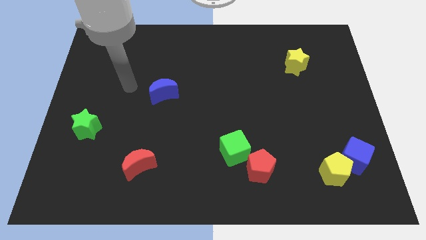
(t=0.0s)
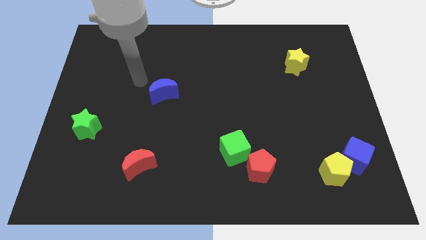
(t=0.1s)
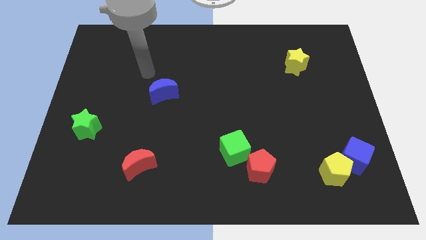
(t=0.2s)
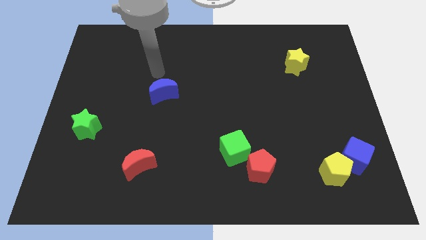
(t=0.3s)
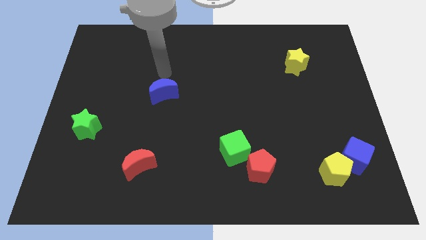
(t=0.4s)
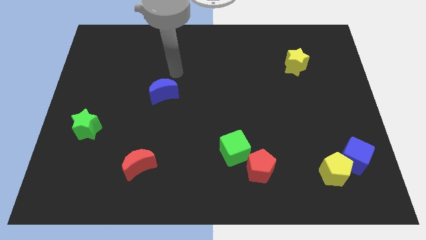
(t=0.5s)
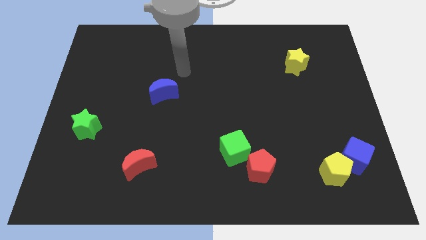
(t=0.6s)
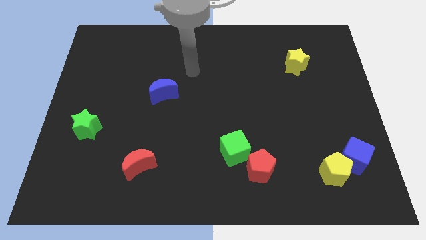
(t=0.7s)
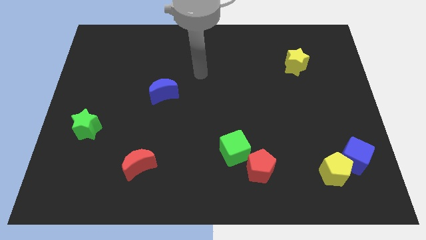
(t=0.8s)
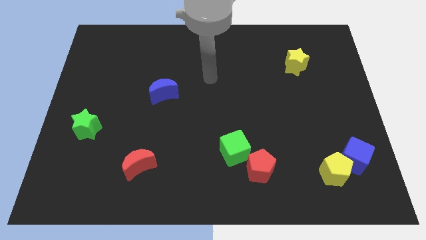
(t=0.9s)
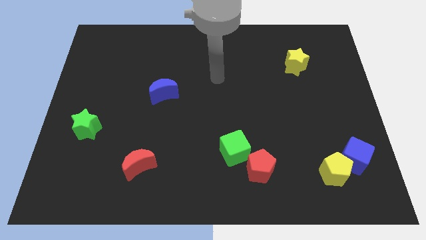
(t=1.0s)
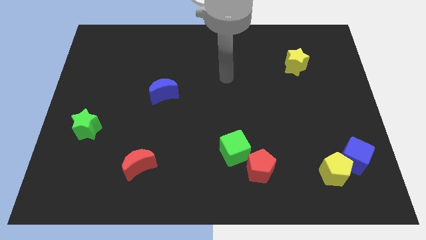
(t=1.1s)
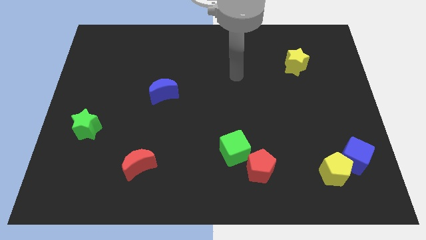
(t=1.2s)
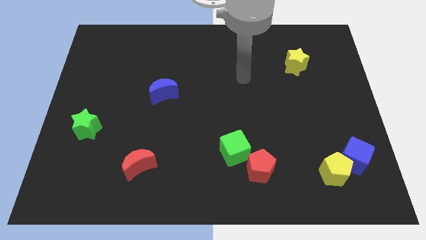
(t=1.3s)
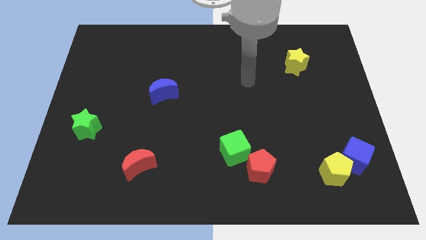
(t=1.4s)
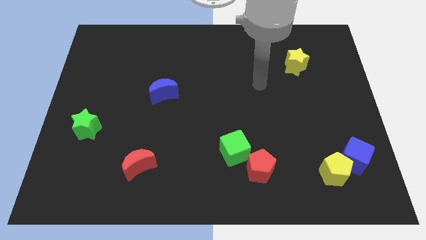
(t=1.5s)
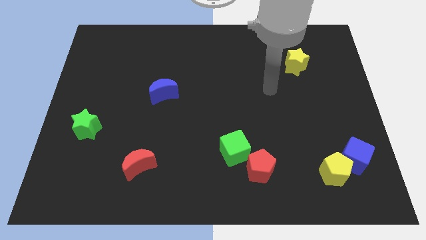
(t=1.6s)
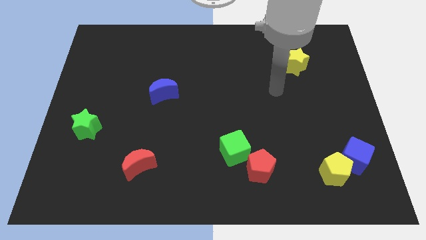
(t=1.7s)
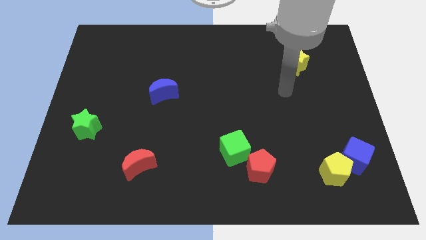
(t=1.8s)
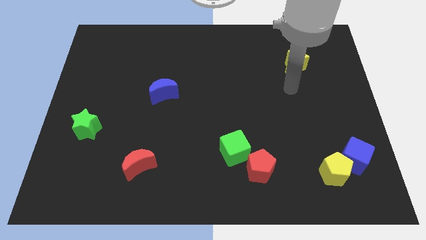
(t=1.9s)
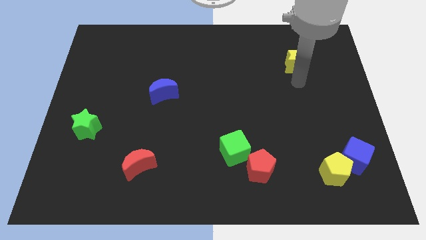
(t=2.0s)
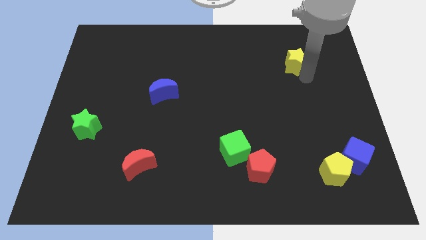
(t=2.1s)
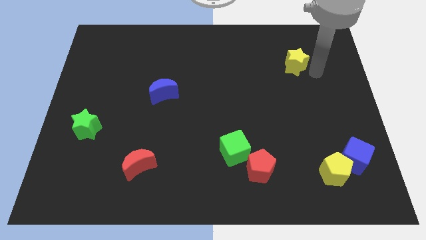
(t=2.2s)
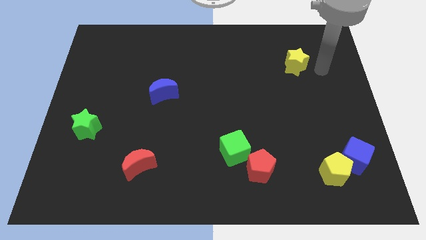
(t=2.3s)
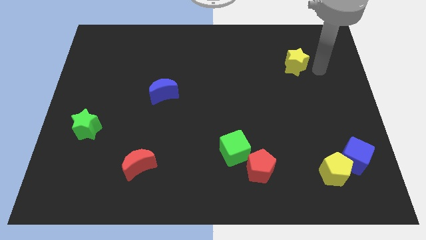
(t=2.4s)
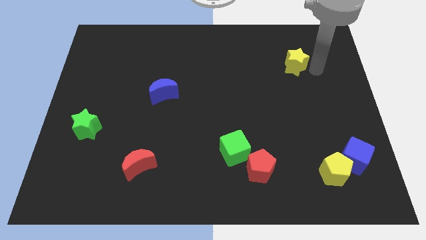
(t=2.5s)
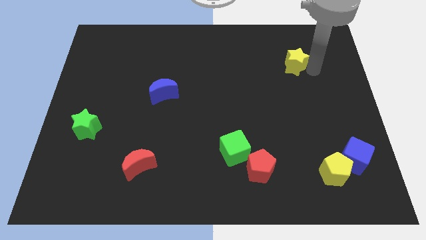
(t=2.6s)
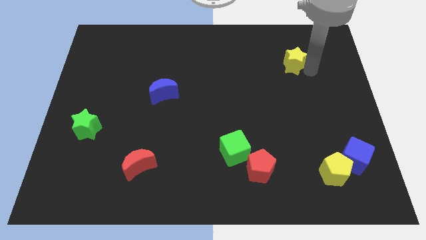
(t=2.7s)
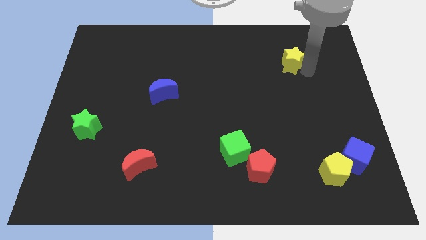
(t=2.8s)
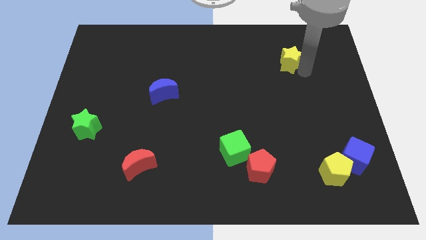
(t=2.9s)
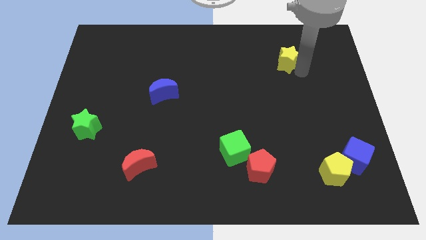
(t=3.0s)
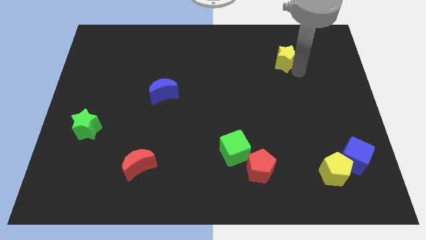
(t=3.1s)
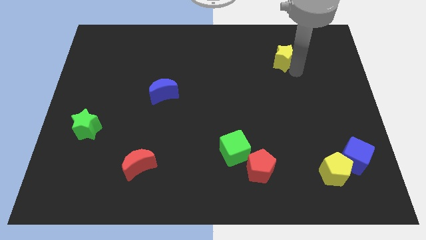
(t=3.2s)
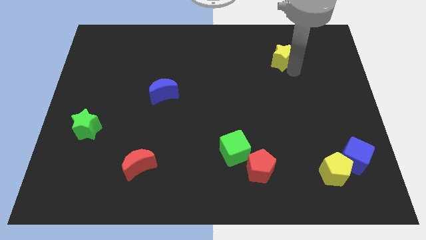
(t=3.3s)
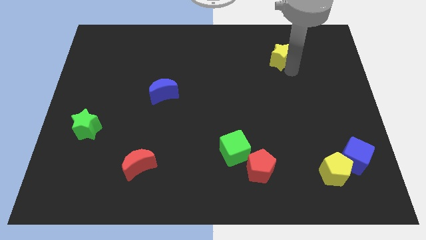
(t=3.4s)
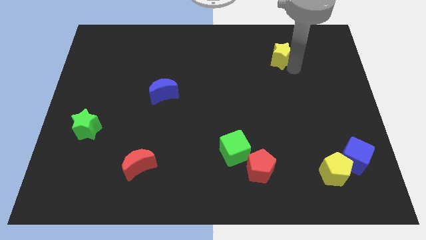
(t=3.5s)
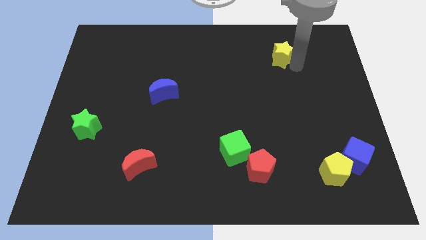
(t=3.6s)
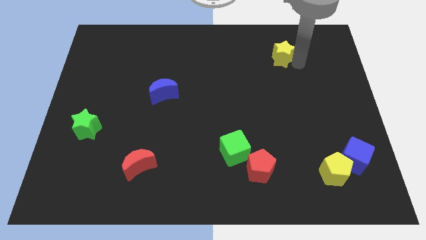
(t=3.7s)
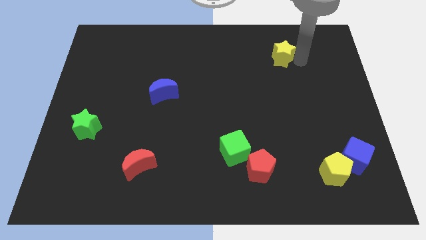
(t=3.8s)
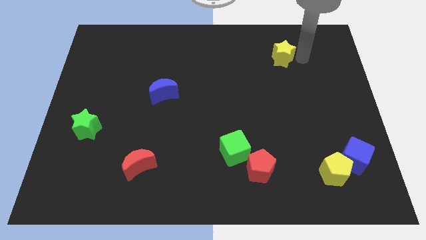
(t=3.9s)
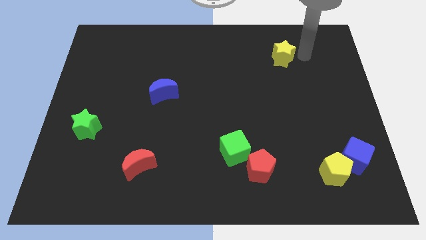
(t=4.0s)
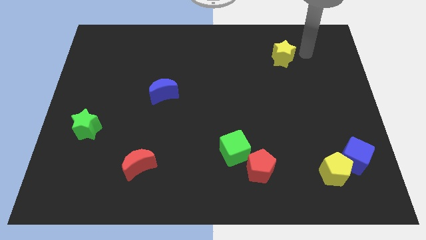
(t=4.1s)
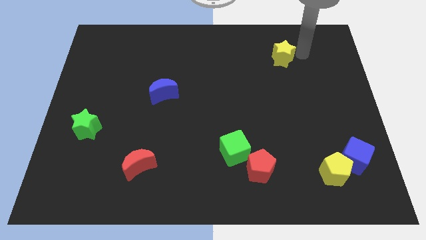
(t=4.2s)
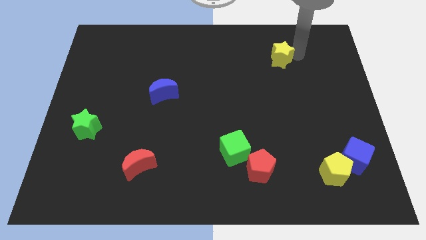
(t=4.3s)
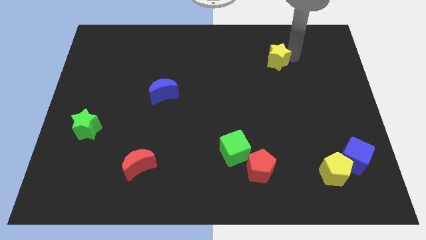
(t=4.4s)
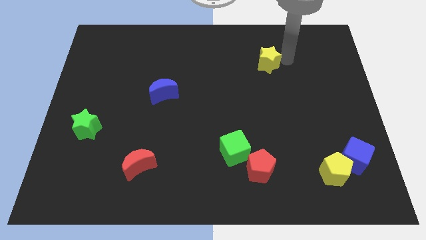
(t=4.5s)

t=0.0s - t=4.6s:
move the yellow star to the left a bit

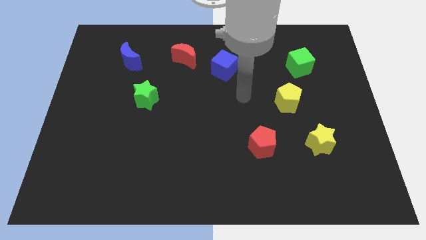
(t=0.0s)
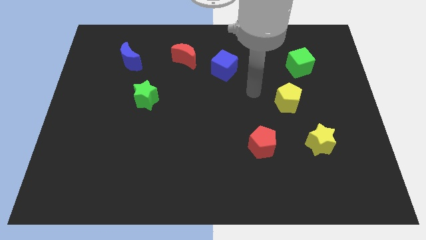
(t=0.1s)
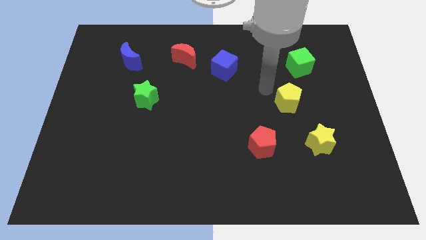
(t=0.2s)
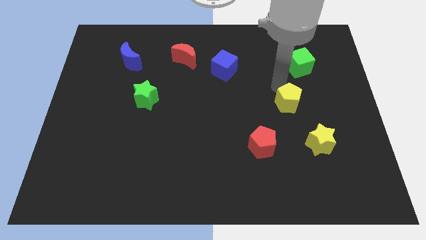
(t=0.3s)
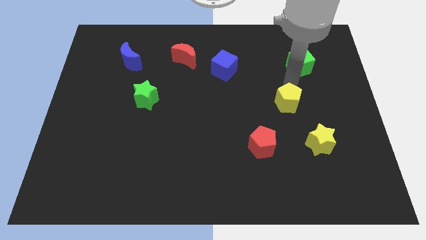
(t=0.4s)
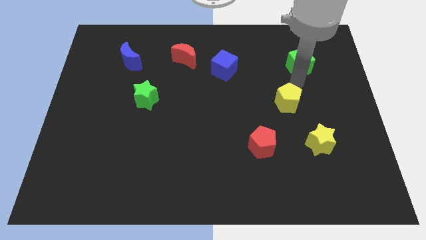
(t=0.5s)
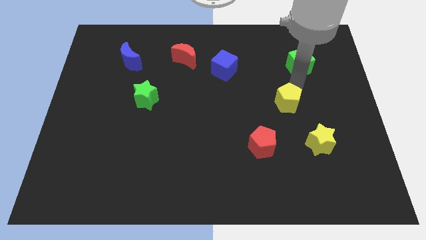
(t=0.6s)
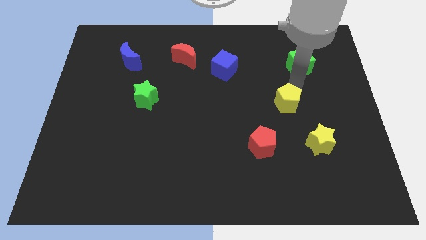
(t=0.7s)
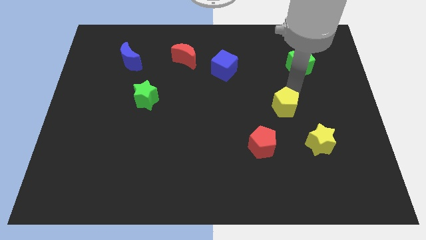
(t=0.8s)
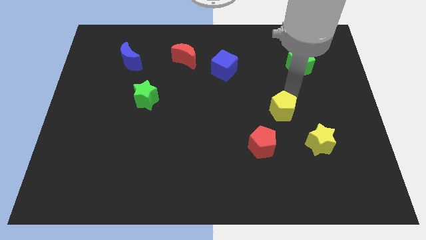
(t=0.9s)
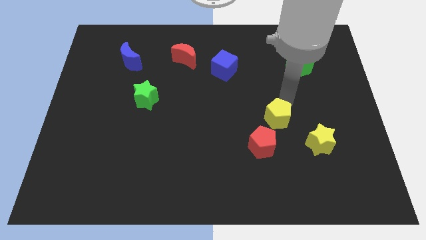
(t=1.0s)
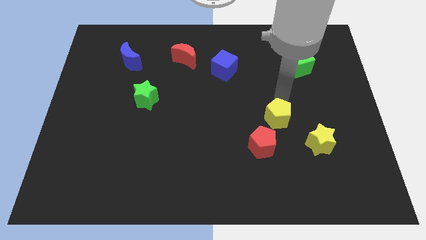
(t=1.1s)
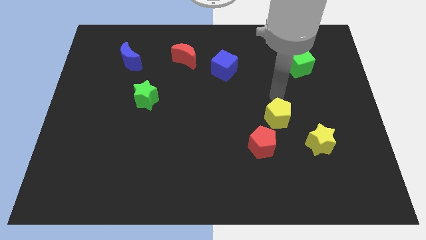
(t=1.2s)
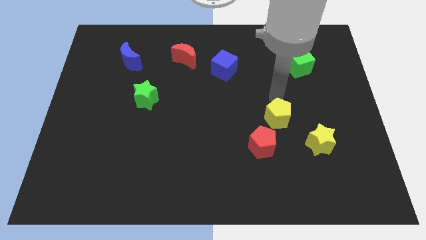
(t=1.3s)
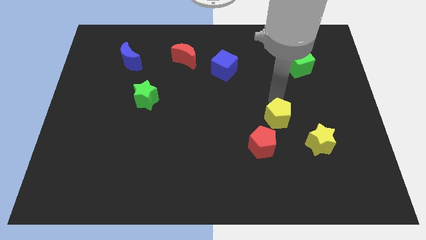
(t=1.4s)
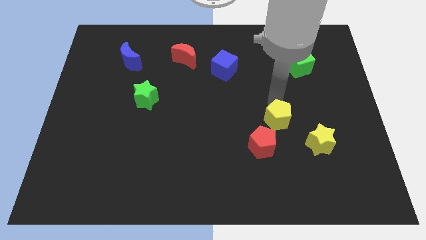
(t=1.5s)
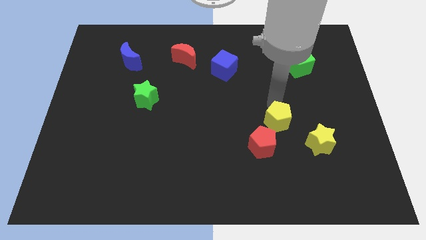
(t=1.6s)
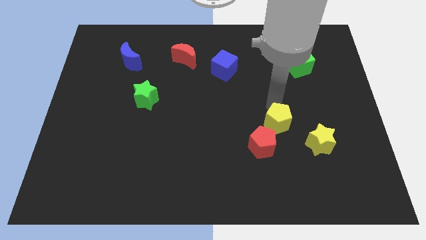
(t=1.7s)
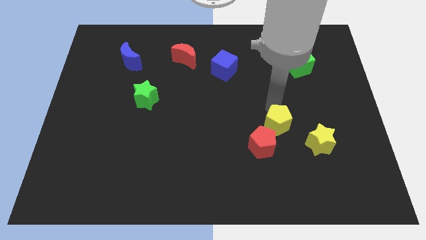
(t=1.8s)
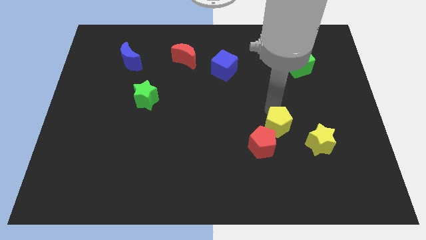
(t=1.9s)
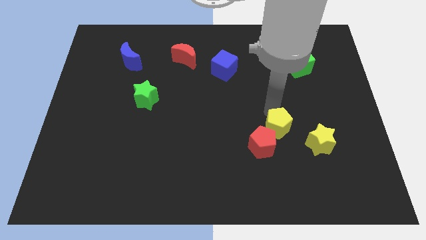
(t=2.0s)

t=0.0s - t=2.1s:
push the yellow pentagon slightly downwards

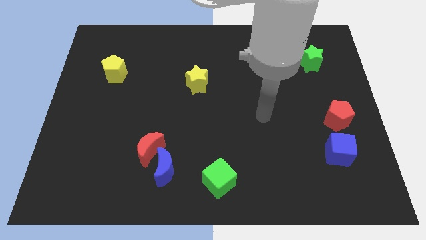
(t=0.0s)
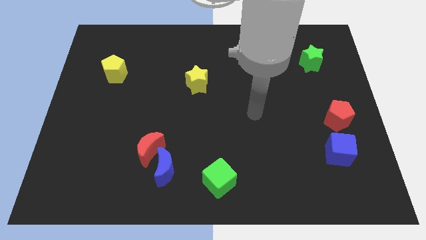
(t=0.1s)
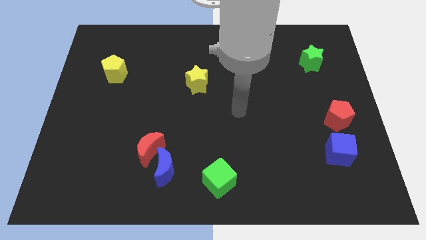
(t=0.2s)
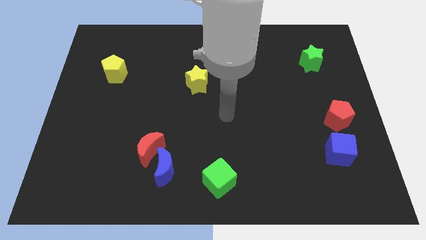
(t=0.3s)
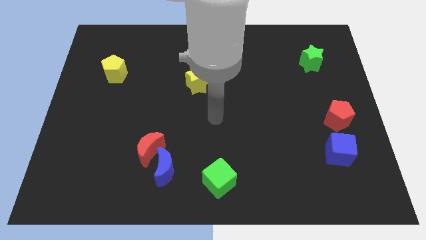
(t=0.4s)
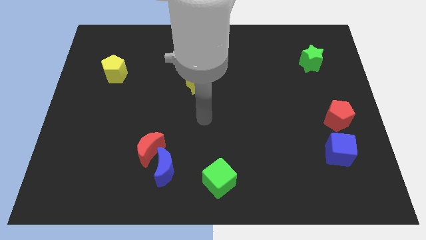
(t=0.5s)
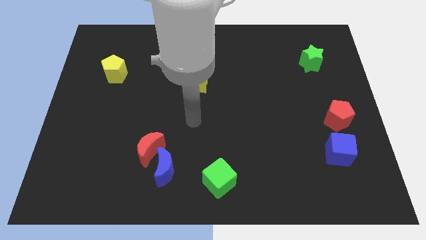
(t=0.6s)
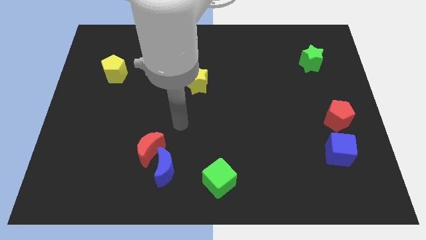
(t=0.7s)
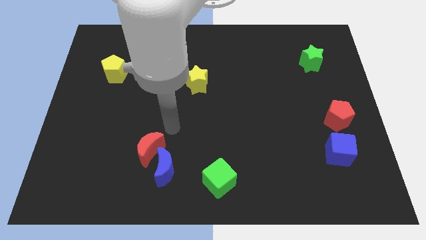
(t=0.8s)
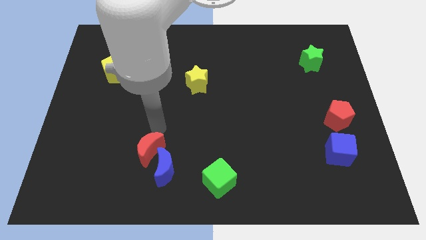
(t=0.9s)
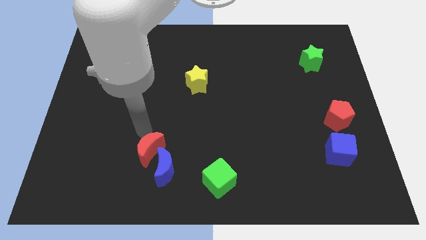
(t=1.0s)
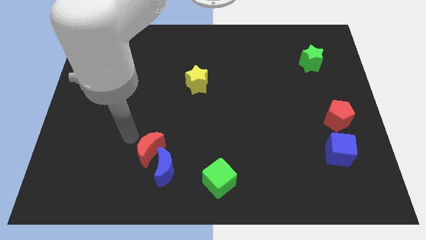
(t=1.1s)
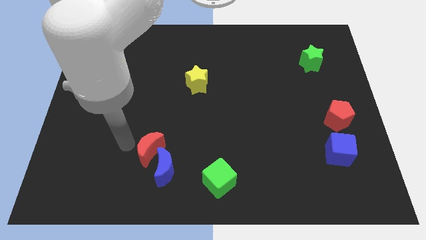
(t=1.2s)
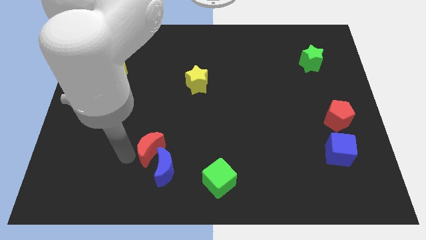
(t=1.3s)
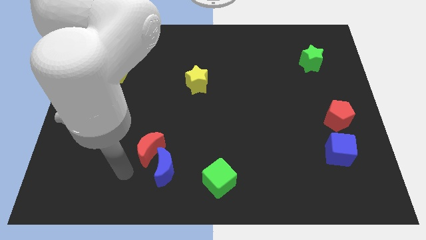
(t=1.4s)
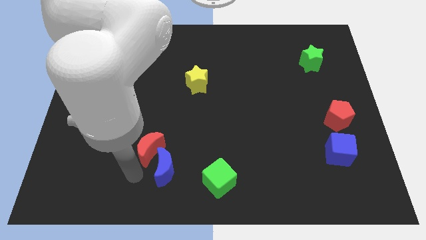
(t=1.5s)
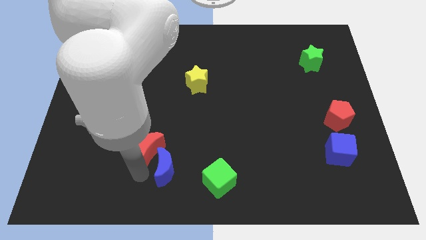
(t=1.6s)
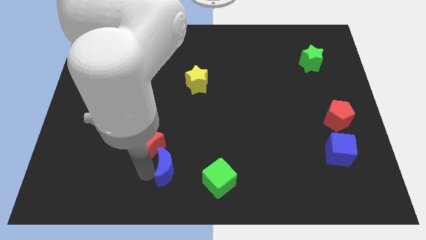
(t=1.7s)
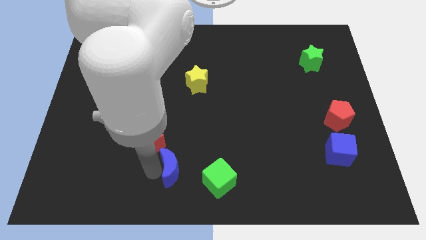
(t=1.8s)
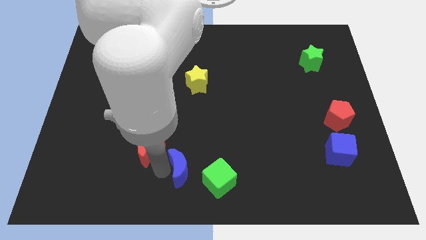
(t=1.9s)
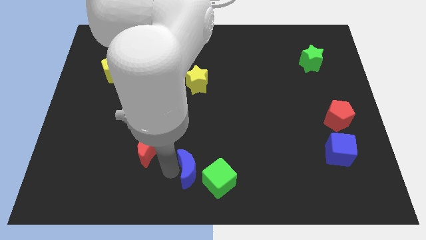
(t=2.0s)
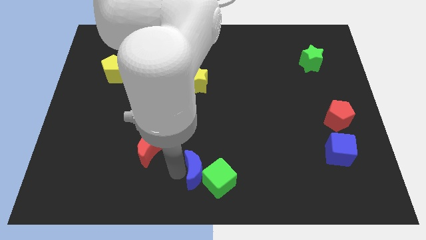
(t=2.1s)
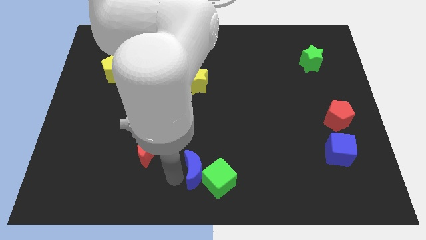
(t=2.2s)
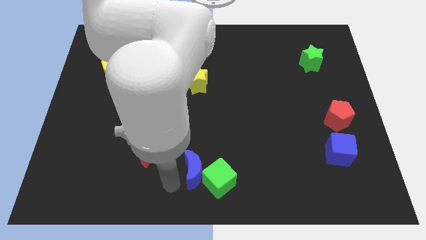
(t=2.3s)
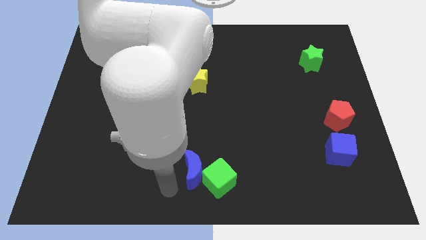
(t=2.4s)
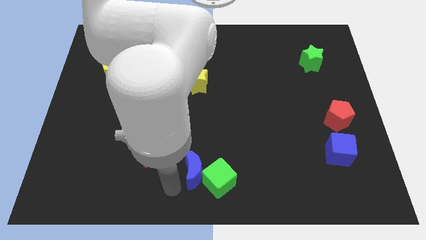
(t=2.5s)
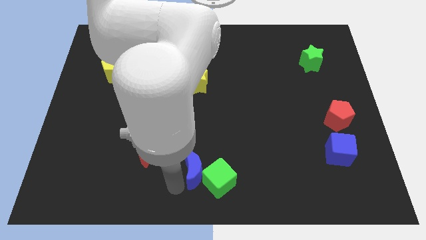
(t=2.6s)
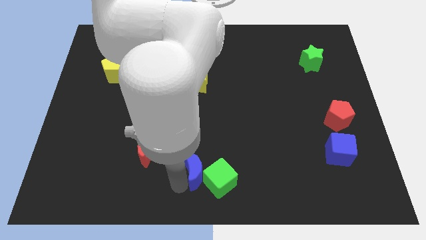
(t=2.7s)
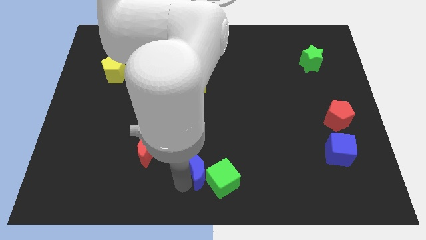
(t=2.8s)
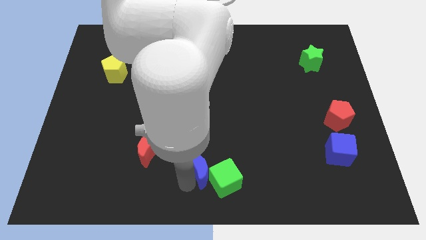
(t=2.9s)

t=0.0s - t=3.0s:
push the blue moon slightly to the right
